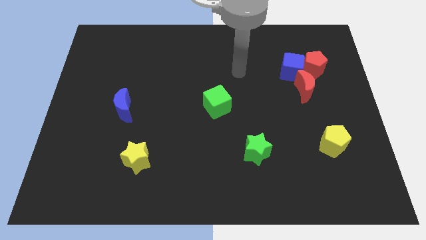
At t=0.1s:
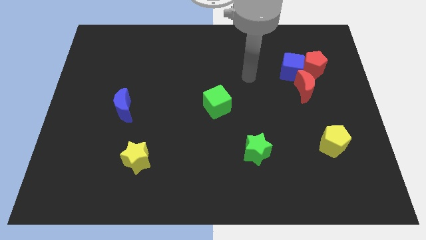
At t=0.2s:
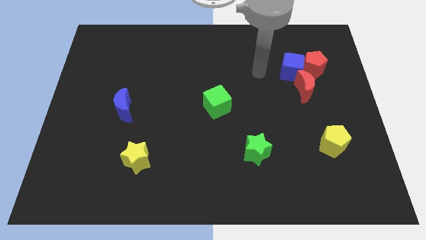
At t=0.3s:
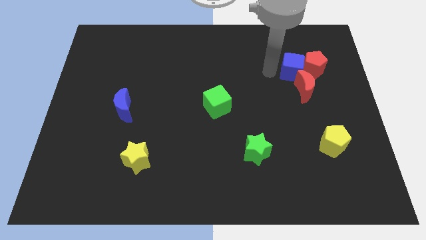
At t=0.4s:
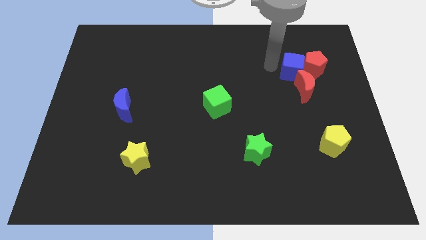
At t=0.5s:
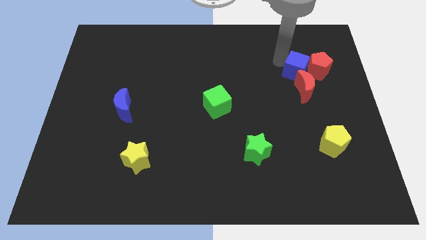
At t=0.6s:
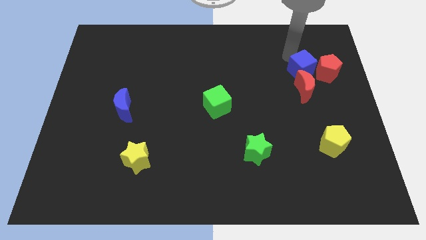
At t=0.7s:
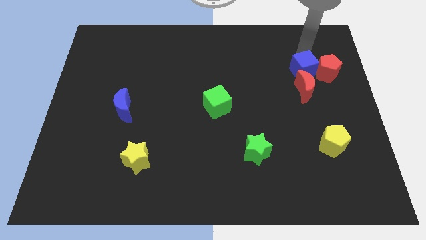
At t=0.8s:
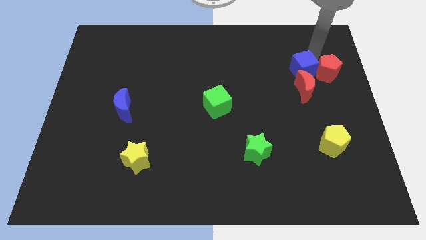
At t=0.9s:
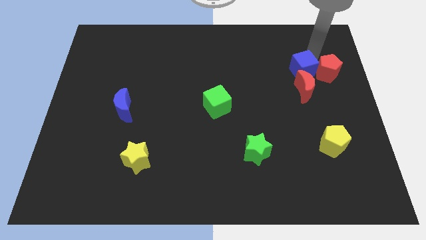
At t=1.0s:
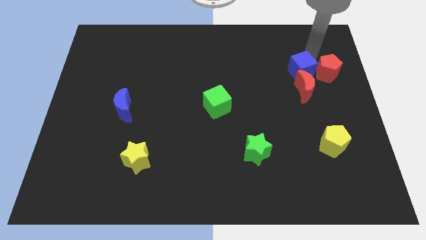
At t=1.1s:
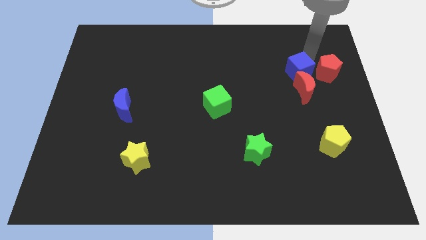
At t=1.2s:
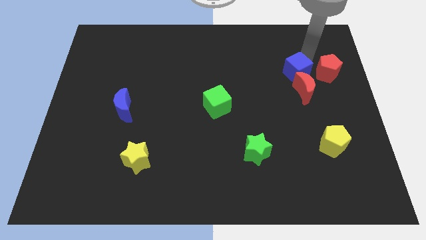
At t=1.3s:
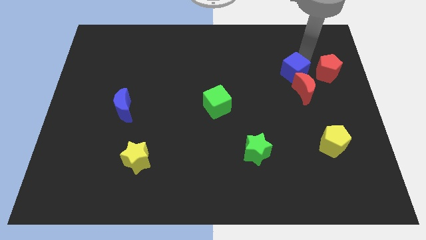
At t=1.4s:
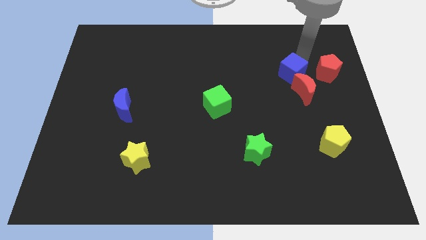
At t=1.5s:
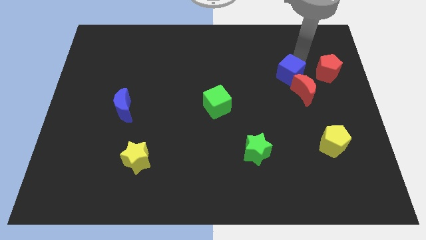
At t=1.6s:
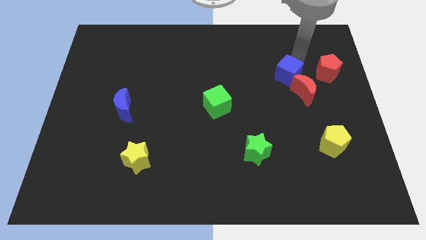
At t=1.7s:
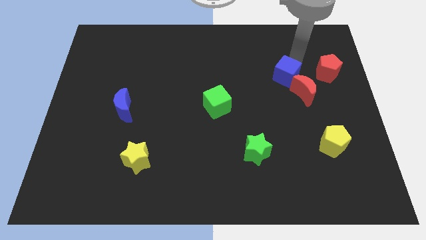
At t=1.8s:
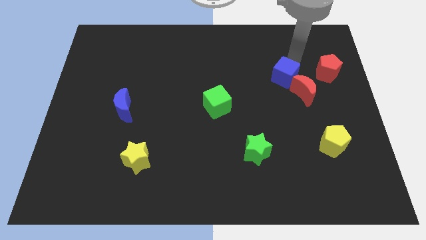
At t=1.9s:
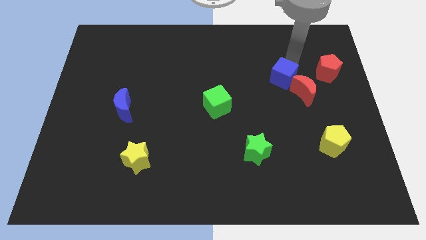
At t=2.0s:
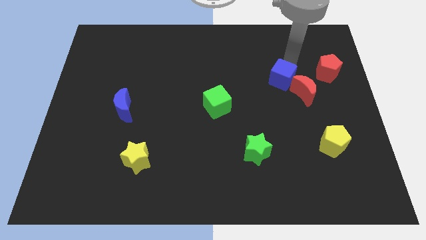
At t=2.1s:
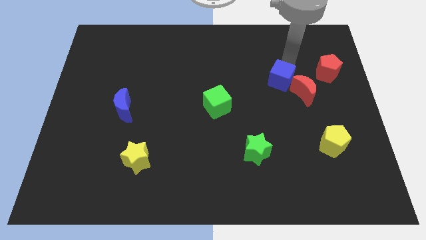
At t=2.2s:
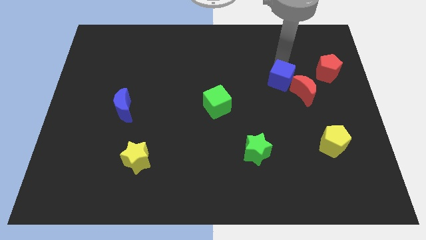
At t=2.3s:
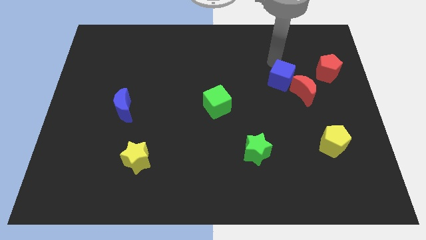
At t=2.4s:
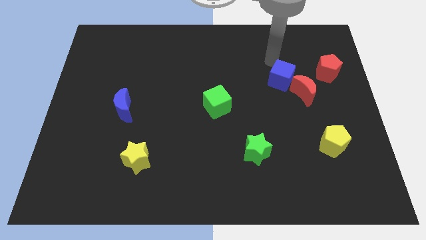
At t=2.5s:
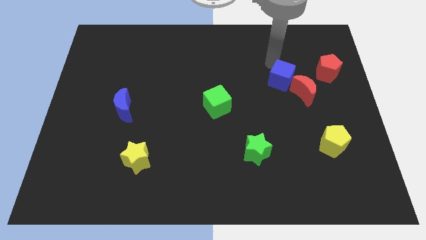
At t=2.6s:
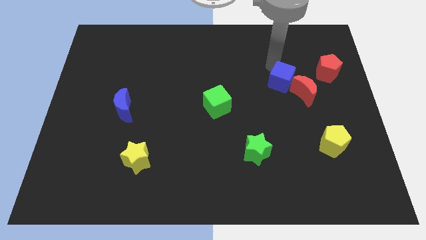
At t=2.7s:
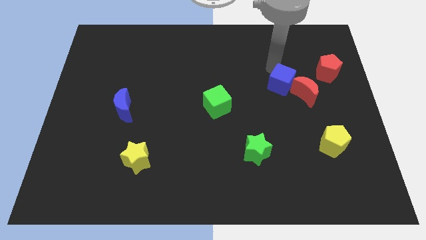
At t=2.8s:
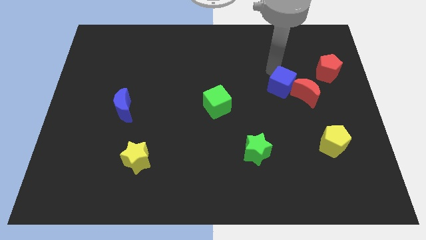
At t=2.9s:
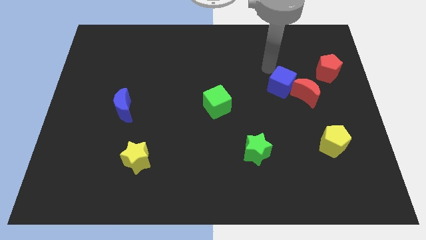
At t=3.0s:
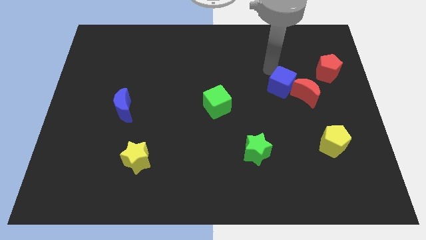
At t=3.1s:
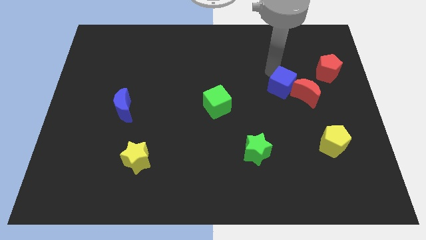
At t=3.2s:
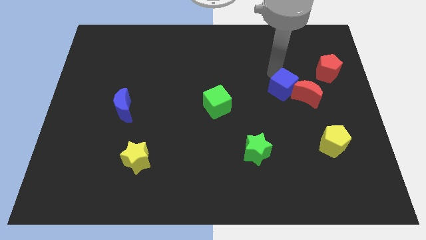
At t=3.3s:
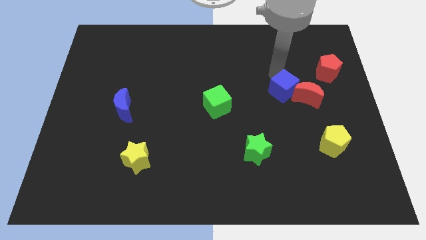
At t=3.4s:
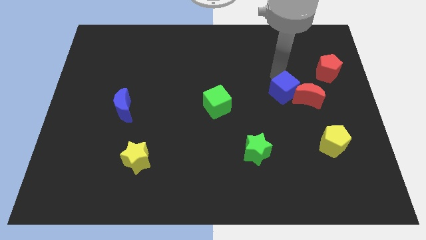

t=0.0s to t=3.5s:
slightly push the blue cube downwards

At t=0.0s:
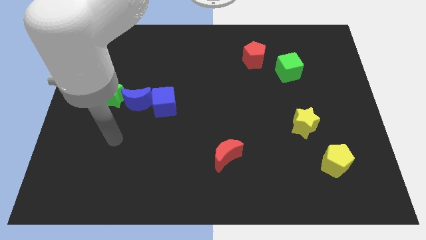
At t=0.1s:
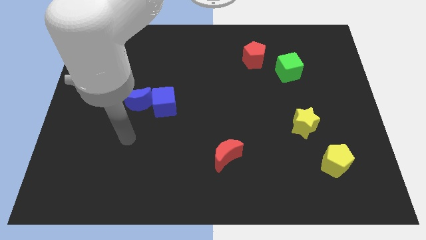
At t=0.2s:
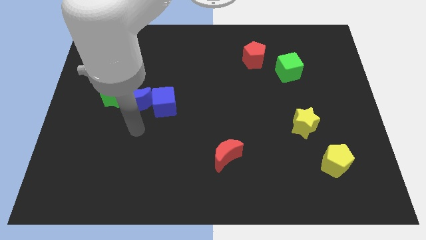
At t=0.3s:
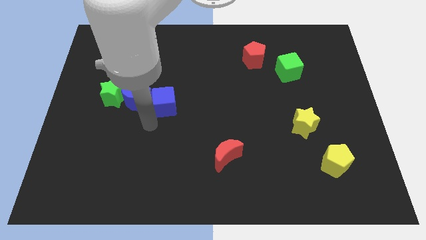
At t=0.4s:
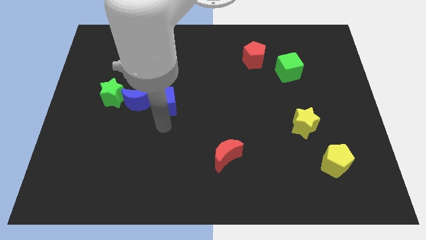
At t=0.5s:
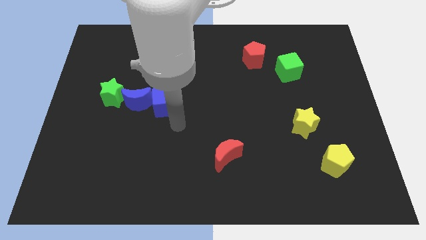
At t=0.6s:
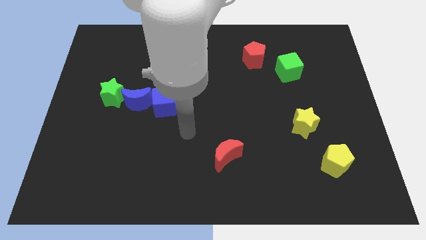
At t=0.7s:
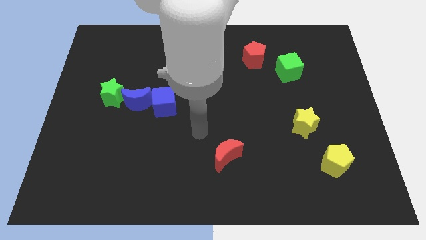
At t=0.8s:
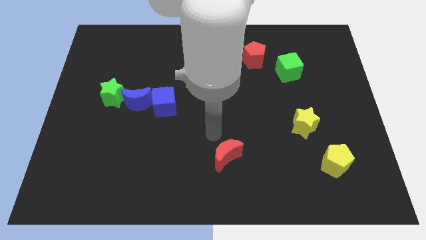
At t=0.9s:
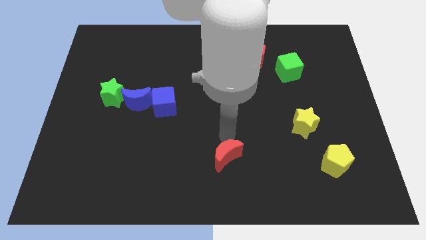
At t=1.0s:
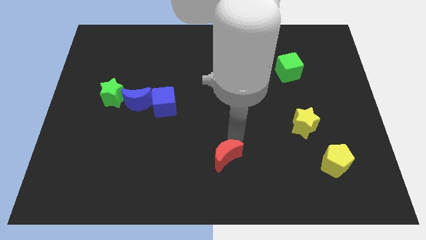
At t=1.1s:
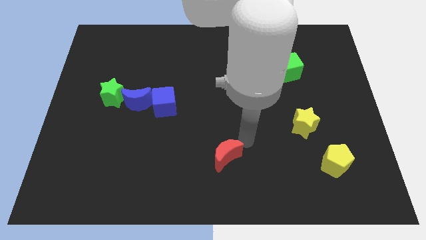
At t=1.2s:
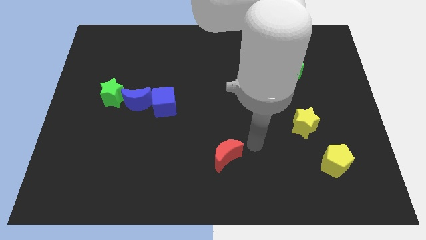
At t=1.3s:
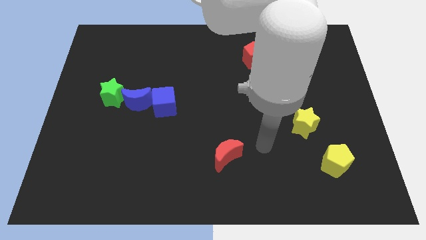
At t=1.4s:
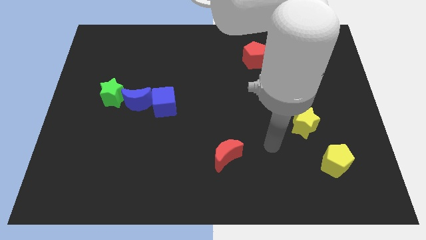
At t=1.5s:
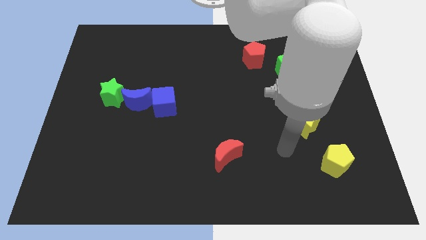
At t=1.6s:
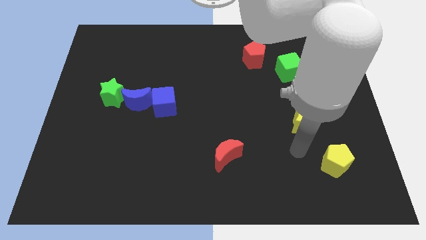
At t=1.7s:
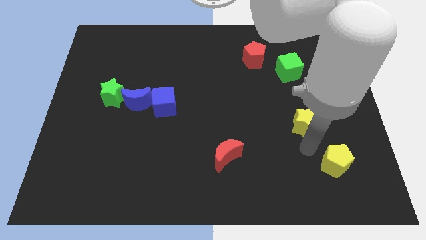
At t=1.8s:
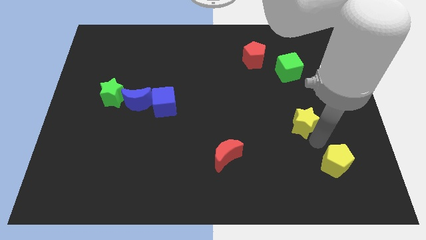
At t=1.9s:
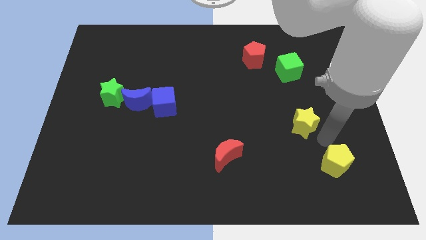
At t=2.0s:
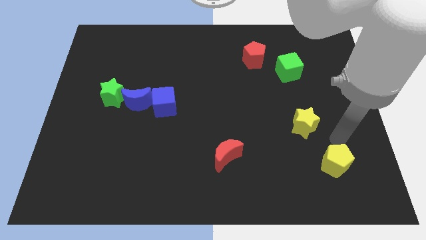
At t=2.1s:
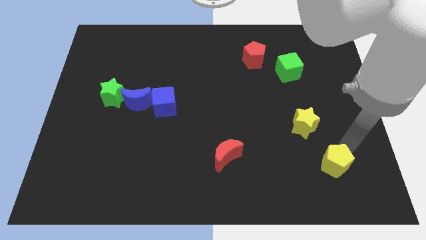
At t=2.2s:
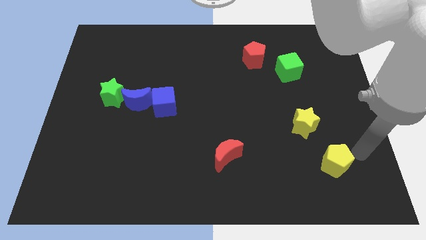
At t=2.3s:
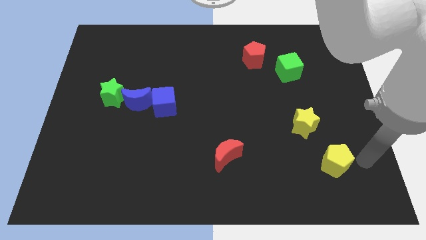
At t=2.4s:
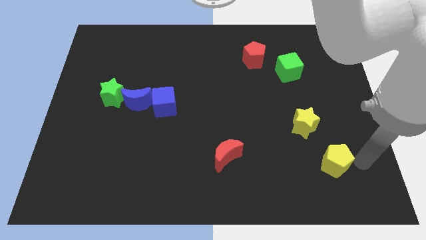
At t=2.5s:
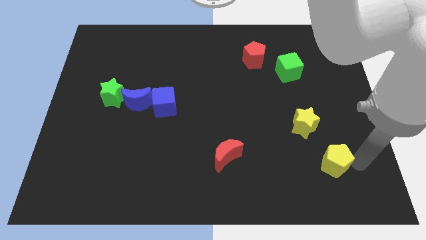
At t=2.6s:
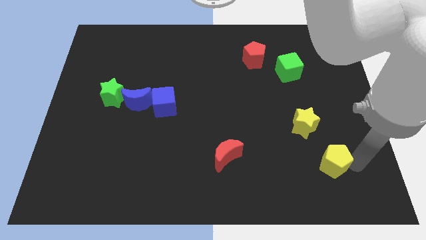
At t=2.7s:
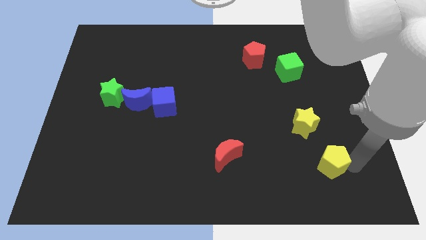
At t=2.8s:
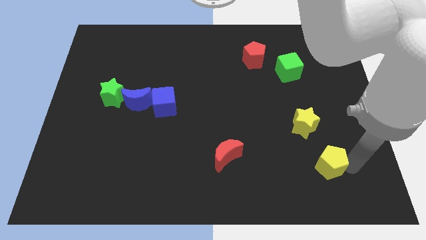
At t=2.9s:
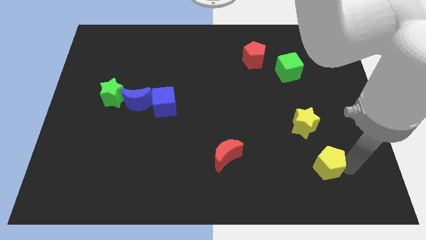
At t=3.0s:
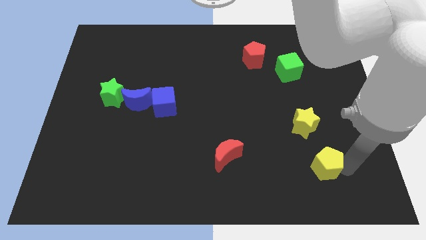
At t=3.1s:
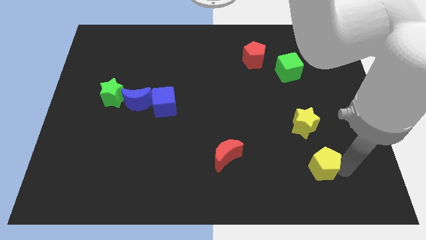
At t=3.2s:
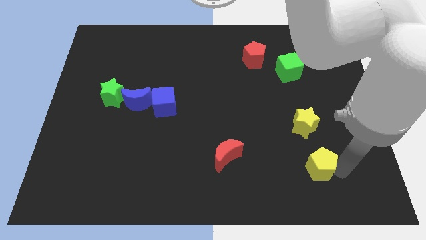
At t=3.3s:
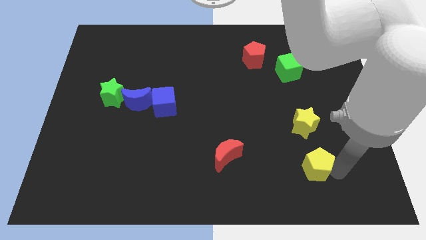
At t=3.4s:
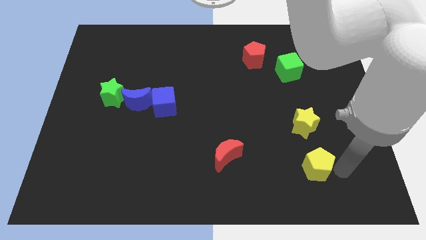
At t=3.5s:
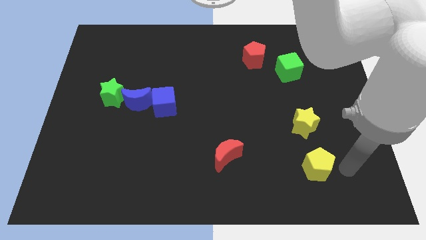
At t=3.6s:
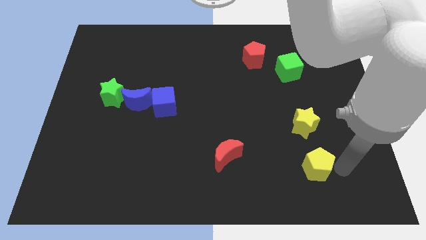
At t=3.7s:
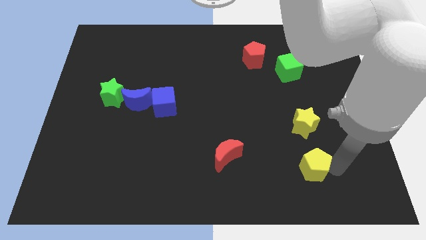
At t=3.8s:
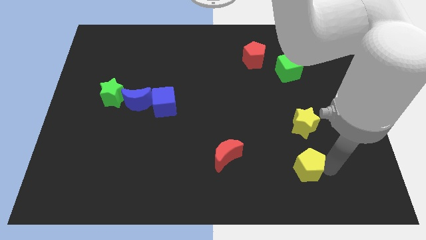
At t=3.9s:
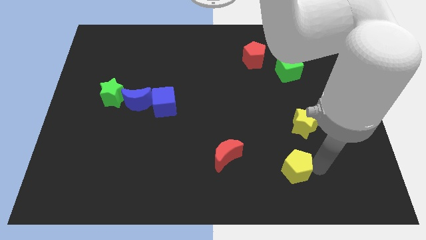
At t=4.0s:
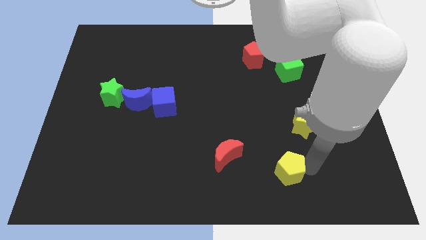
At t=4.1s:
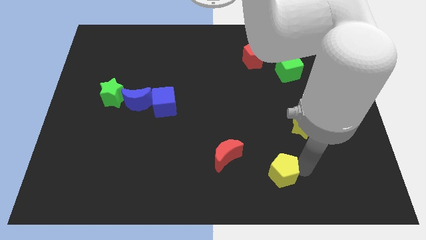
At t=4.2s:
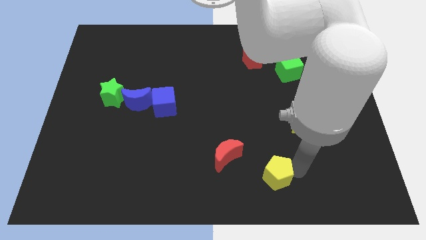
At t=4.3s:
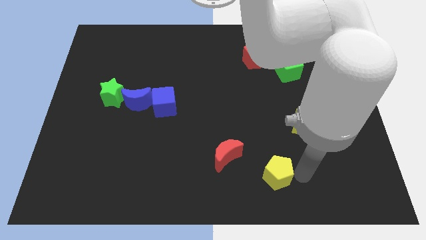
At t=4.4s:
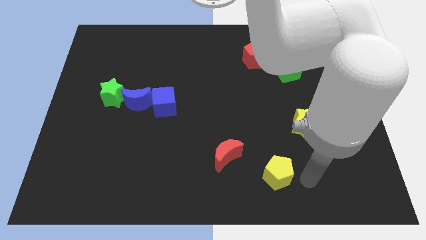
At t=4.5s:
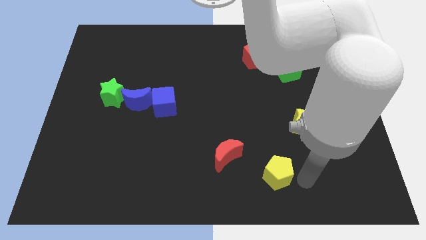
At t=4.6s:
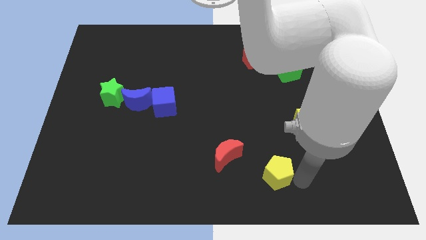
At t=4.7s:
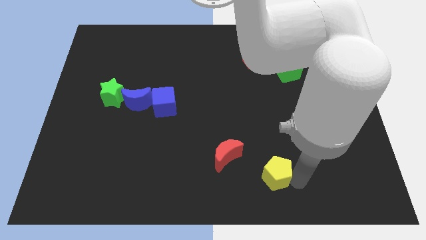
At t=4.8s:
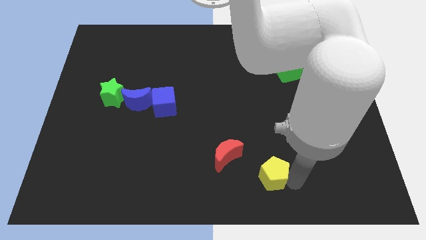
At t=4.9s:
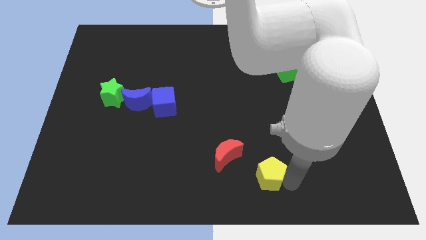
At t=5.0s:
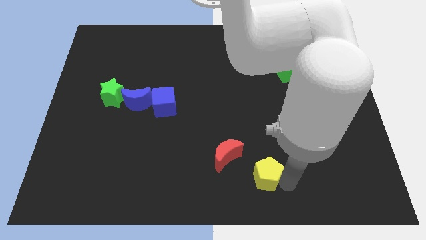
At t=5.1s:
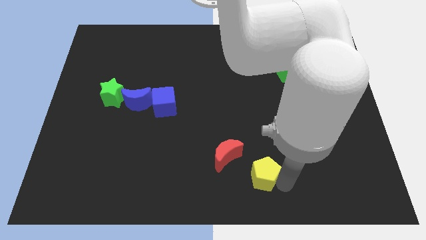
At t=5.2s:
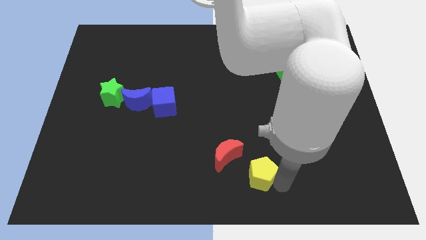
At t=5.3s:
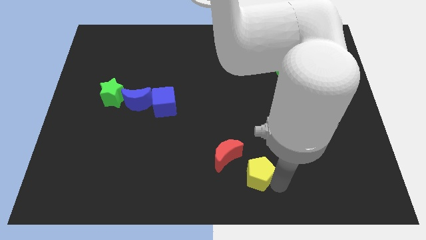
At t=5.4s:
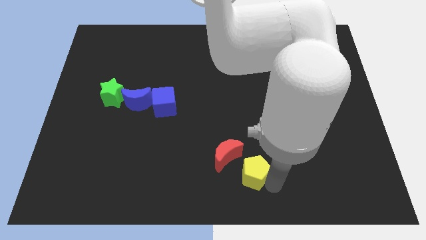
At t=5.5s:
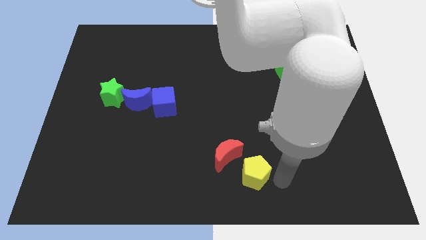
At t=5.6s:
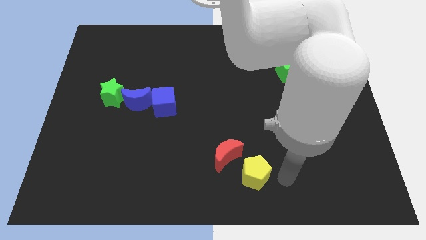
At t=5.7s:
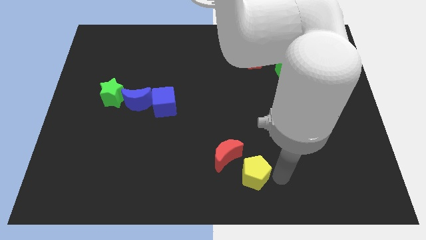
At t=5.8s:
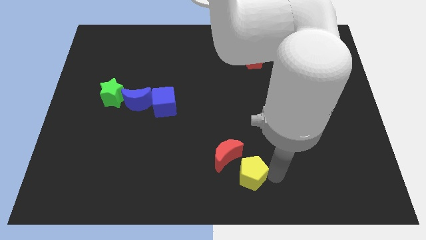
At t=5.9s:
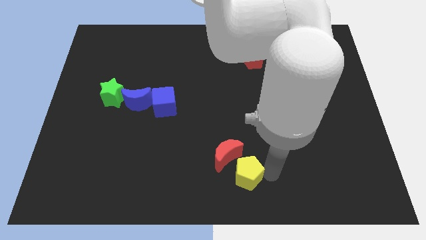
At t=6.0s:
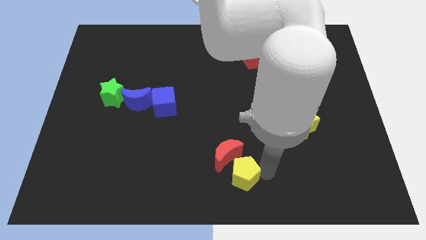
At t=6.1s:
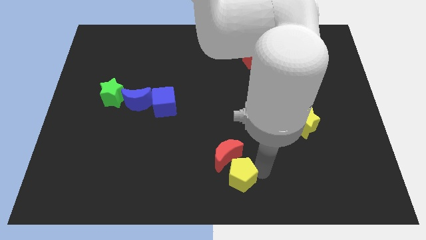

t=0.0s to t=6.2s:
move the yellow pentagon left
